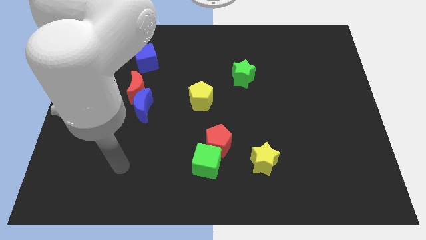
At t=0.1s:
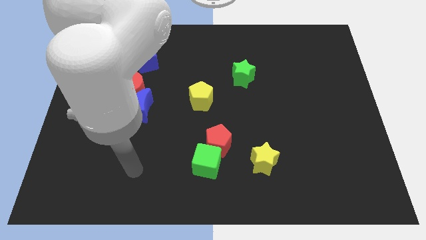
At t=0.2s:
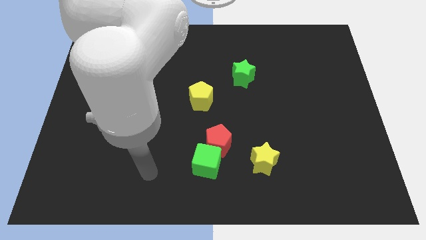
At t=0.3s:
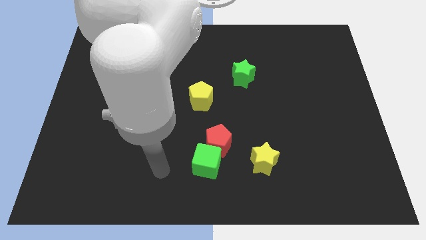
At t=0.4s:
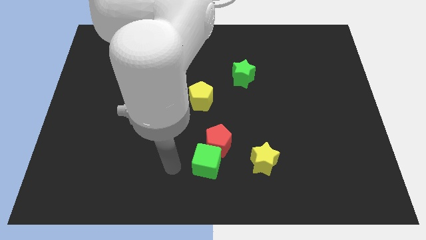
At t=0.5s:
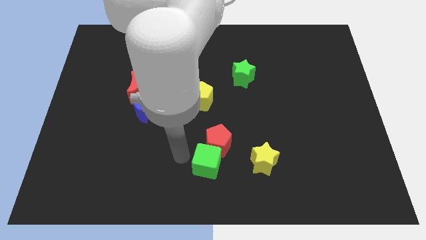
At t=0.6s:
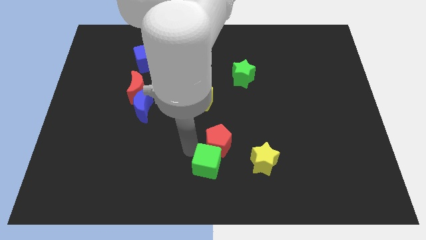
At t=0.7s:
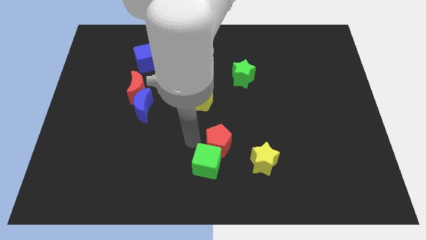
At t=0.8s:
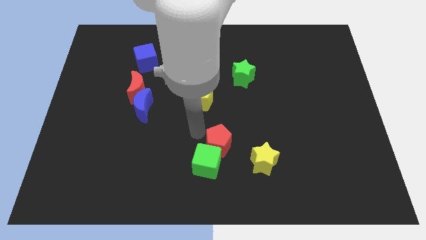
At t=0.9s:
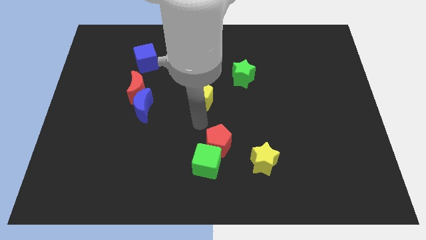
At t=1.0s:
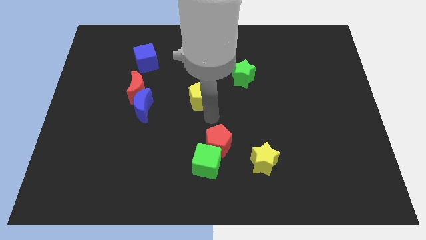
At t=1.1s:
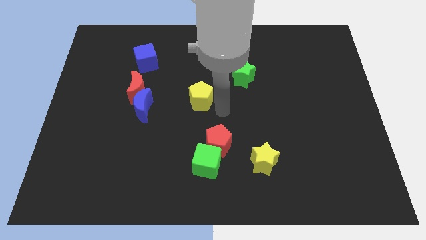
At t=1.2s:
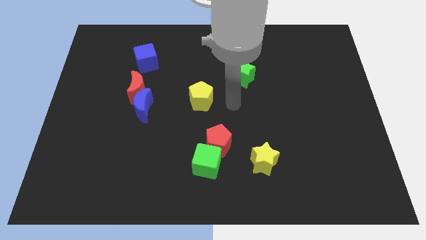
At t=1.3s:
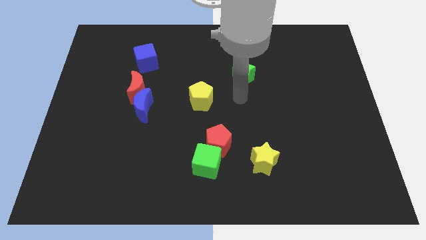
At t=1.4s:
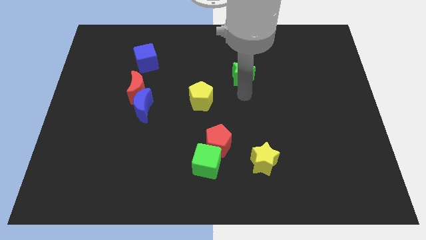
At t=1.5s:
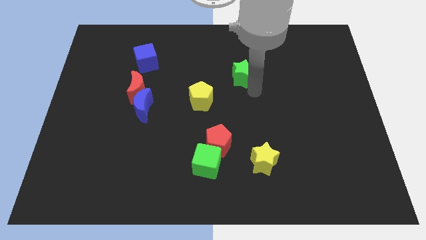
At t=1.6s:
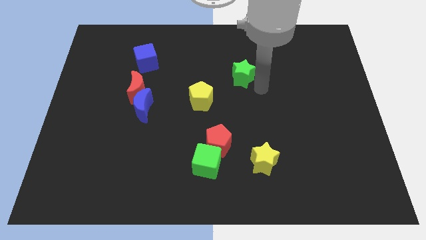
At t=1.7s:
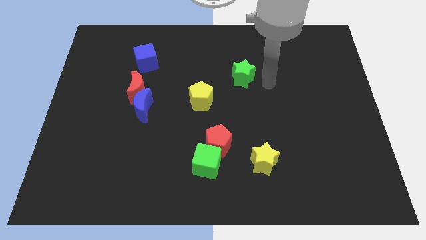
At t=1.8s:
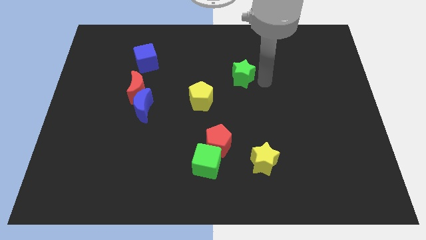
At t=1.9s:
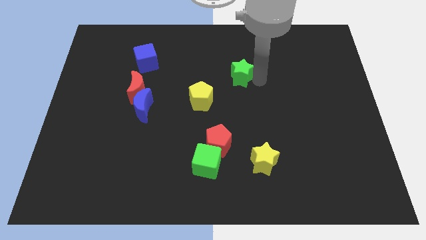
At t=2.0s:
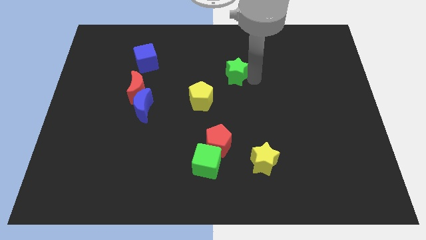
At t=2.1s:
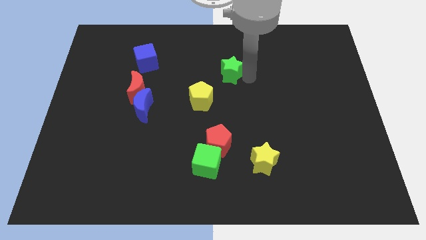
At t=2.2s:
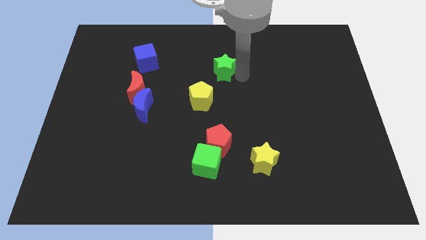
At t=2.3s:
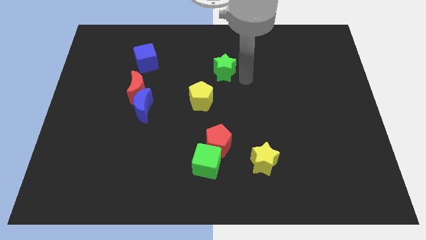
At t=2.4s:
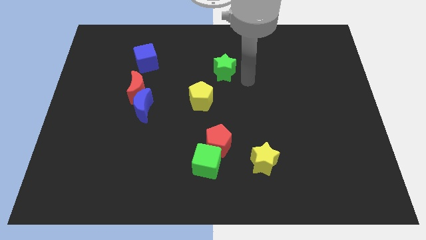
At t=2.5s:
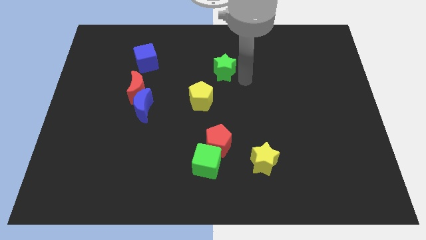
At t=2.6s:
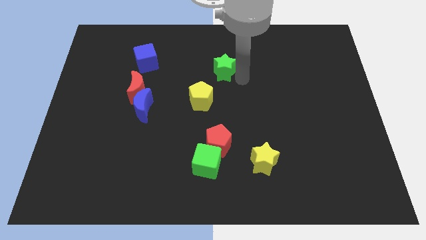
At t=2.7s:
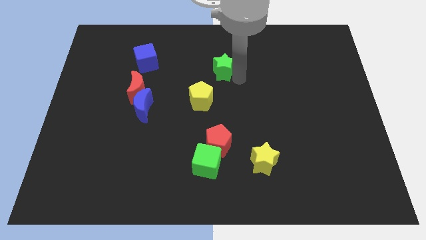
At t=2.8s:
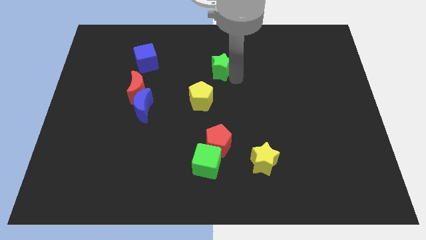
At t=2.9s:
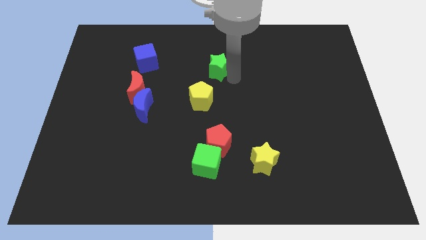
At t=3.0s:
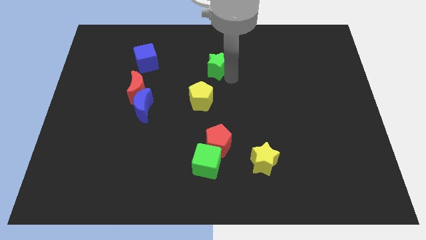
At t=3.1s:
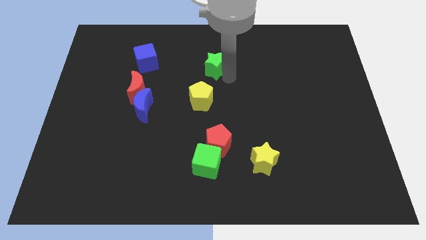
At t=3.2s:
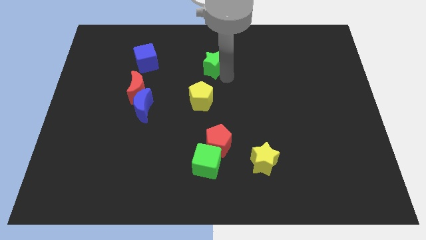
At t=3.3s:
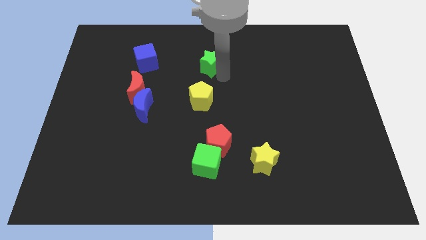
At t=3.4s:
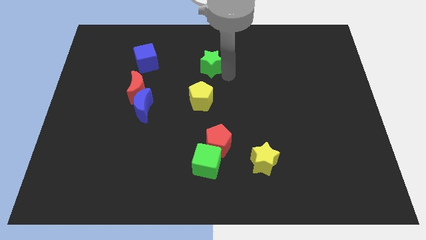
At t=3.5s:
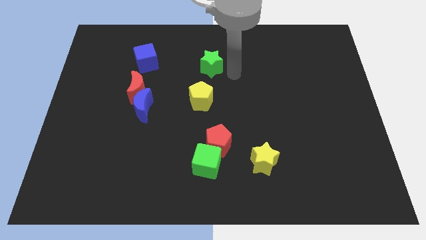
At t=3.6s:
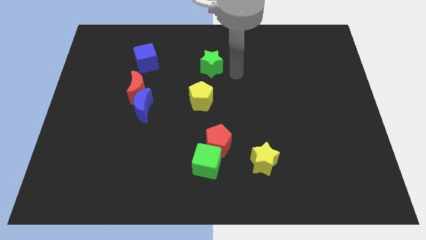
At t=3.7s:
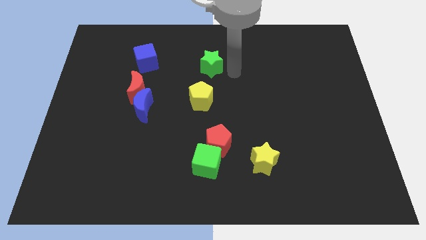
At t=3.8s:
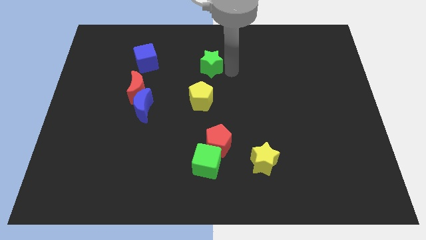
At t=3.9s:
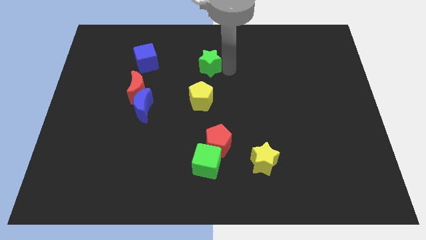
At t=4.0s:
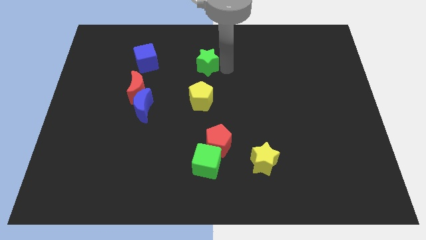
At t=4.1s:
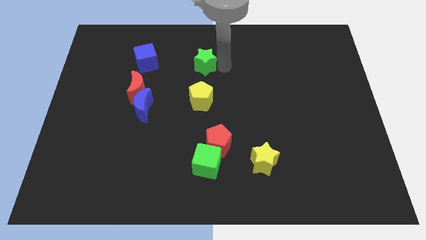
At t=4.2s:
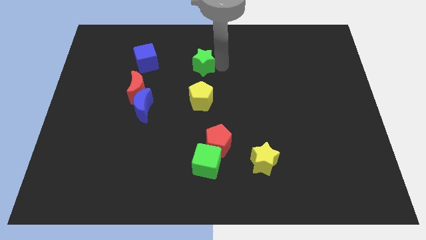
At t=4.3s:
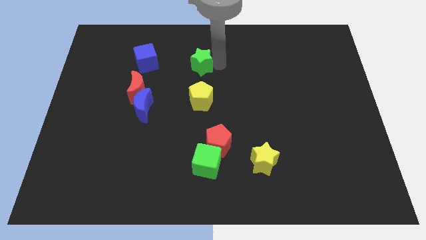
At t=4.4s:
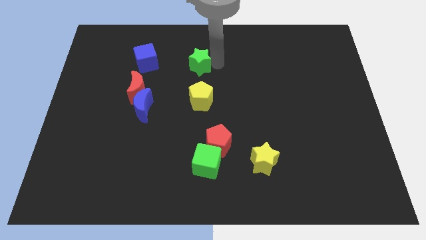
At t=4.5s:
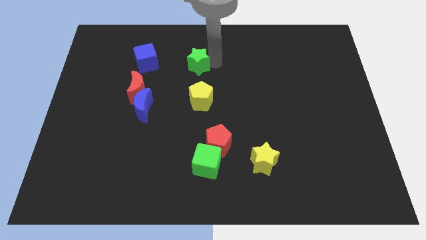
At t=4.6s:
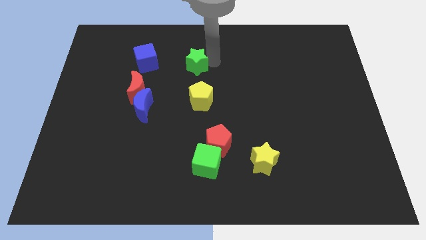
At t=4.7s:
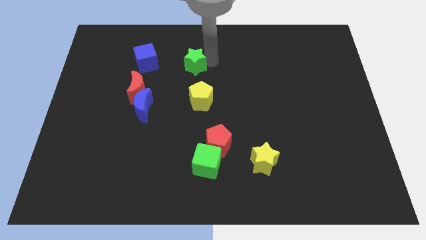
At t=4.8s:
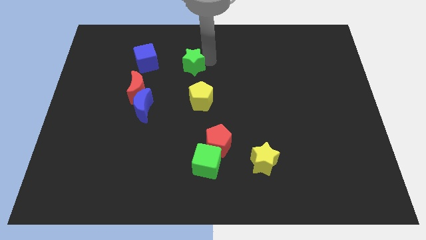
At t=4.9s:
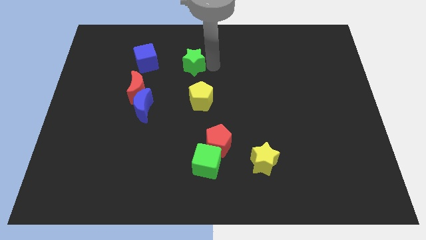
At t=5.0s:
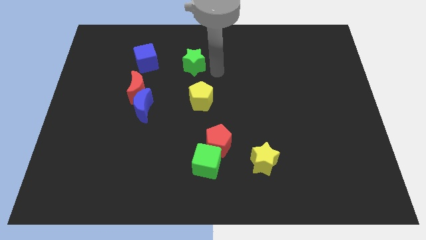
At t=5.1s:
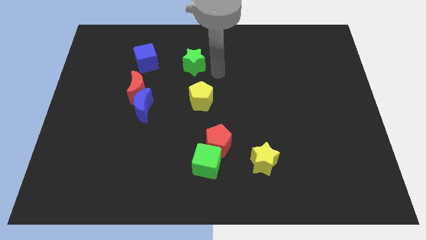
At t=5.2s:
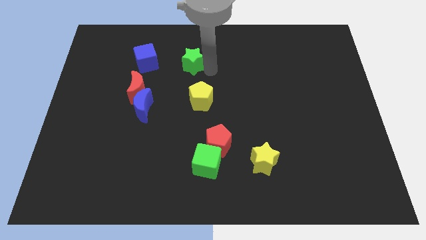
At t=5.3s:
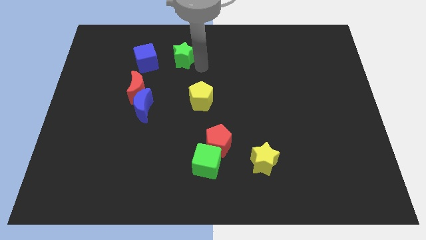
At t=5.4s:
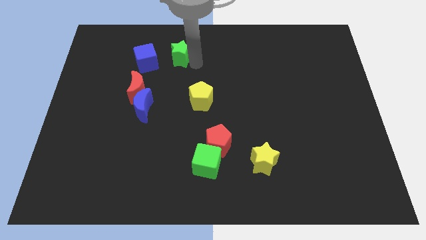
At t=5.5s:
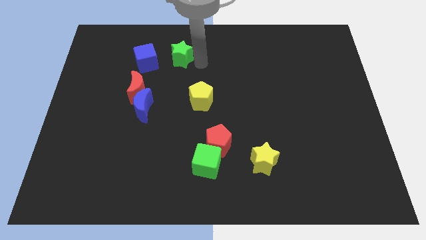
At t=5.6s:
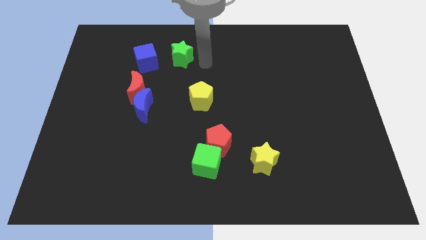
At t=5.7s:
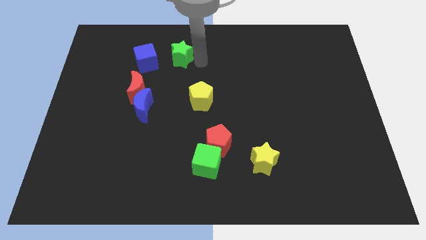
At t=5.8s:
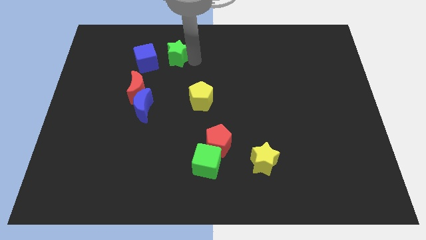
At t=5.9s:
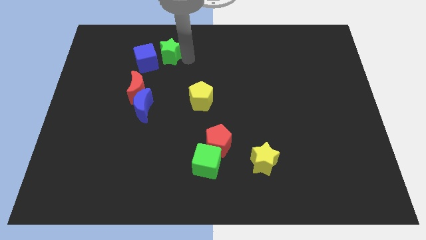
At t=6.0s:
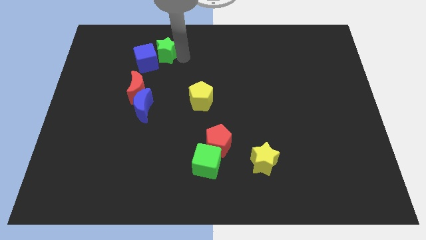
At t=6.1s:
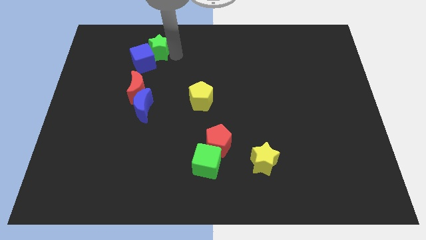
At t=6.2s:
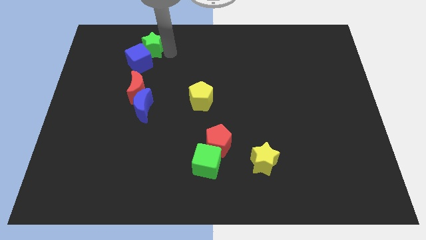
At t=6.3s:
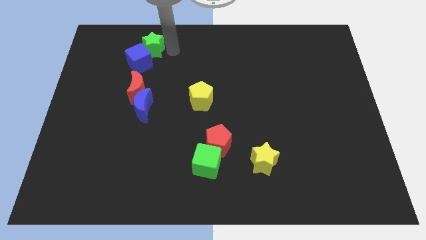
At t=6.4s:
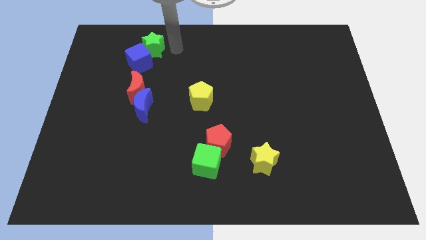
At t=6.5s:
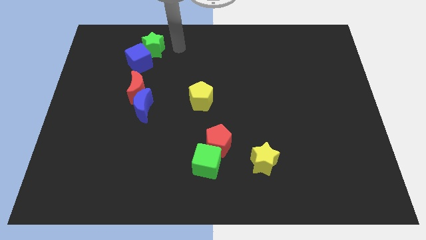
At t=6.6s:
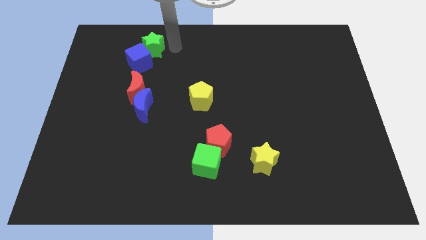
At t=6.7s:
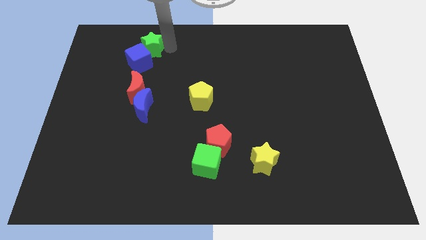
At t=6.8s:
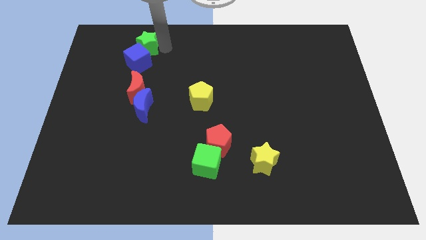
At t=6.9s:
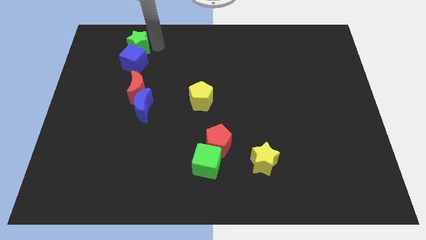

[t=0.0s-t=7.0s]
slide the green star to the left

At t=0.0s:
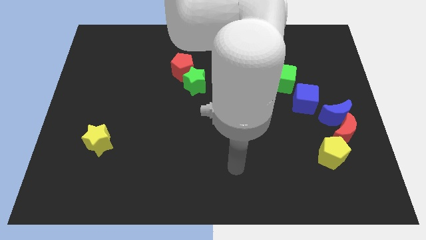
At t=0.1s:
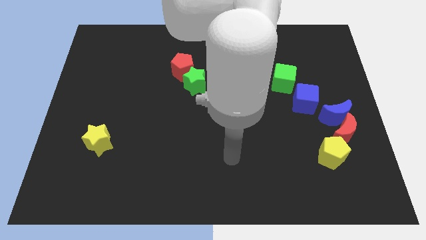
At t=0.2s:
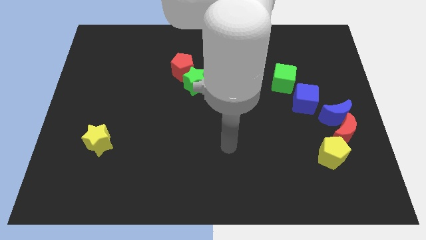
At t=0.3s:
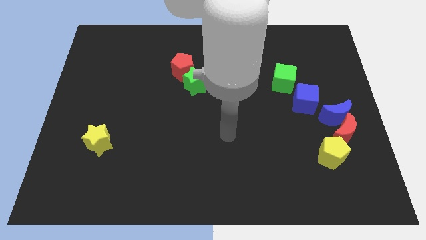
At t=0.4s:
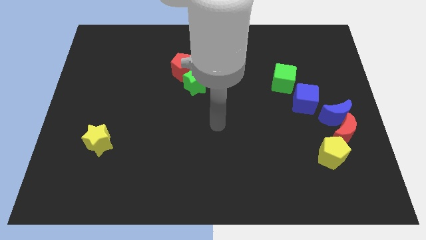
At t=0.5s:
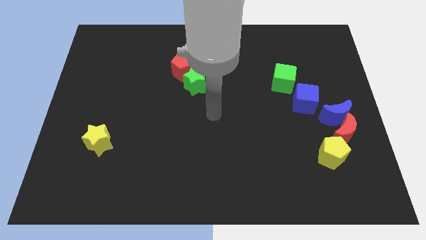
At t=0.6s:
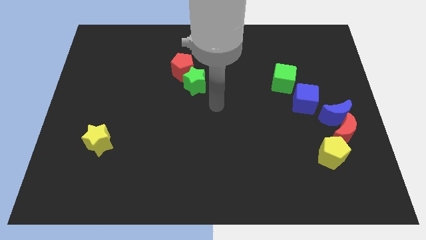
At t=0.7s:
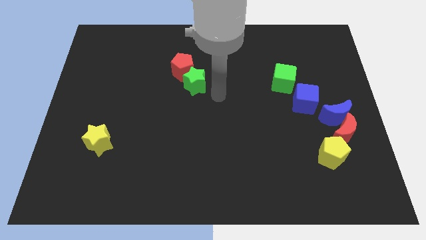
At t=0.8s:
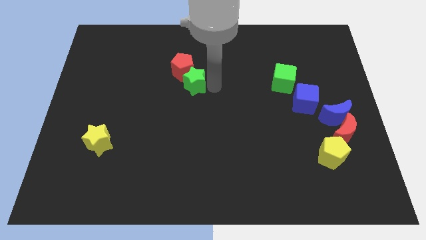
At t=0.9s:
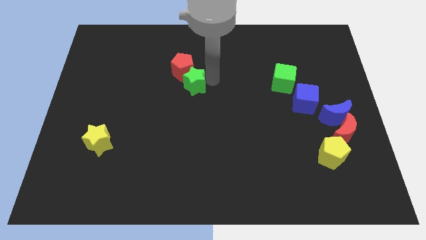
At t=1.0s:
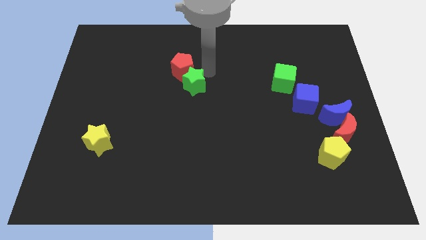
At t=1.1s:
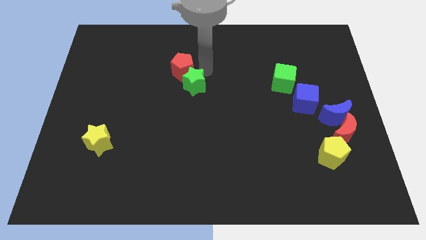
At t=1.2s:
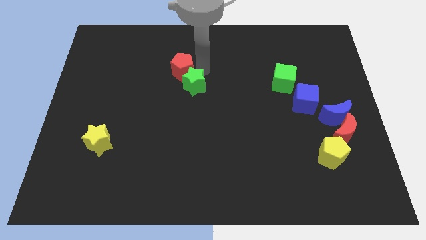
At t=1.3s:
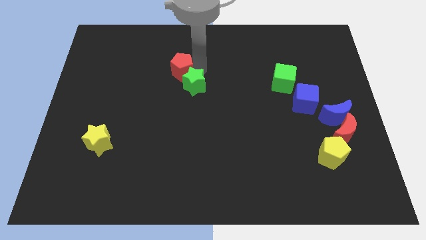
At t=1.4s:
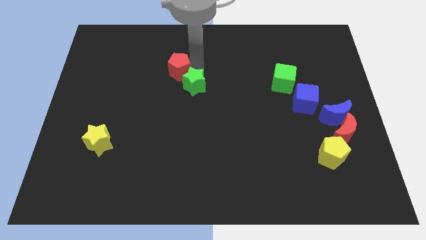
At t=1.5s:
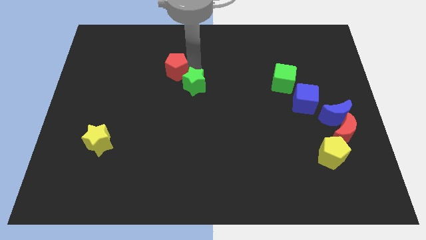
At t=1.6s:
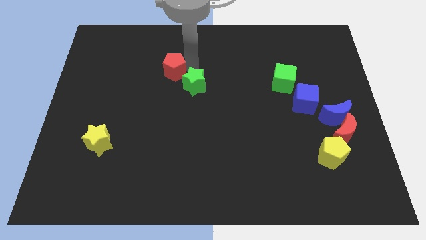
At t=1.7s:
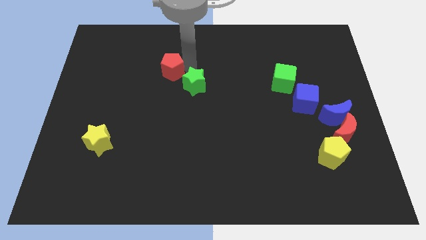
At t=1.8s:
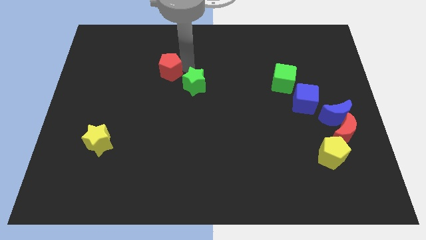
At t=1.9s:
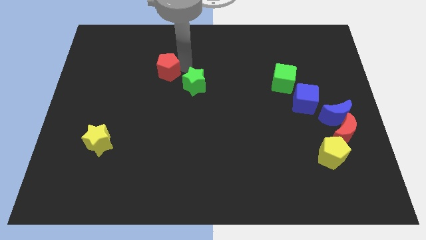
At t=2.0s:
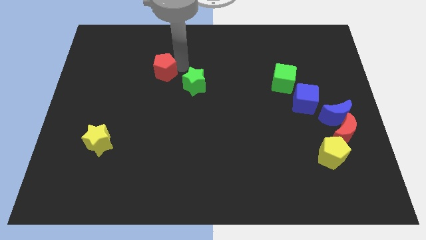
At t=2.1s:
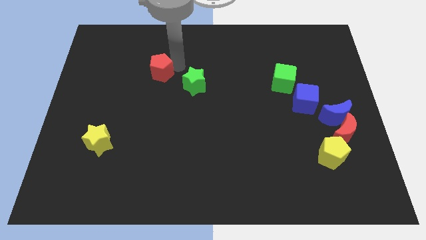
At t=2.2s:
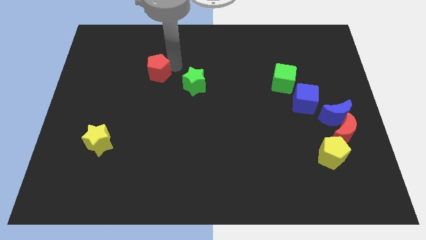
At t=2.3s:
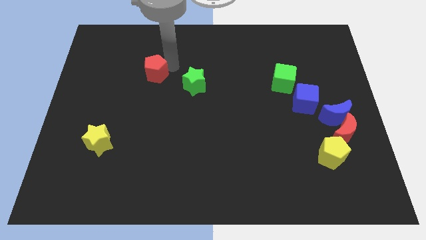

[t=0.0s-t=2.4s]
push the red pentagon to the left a little bit
